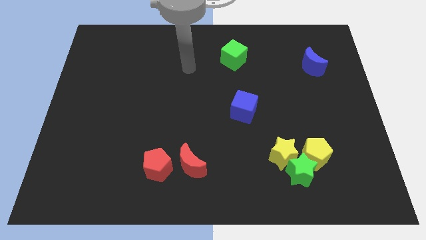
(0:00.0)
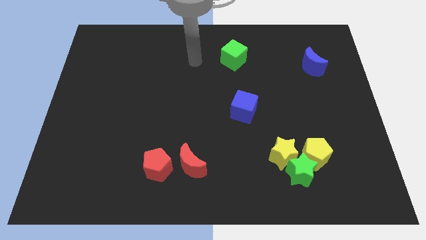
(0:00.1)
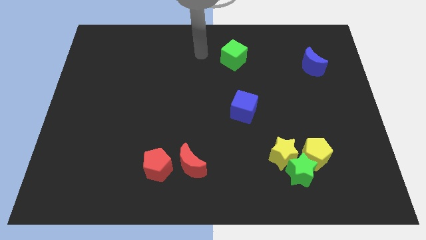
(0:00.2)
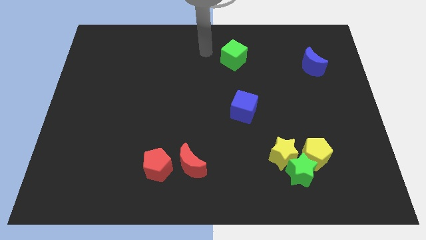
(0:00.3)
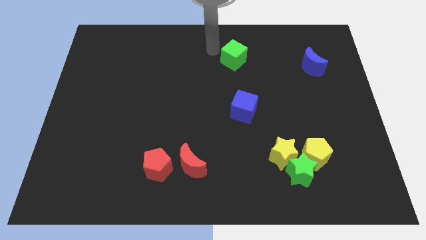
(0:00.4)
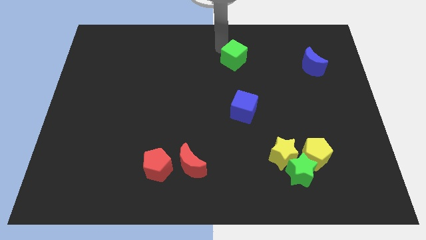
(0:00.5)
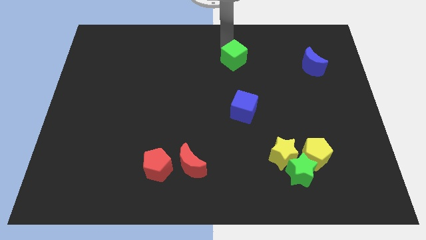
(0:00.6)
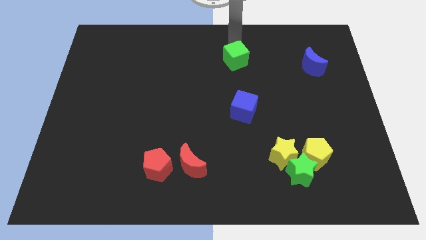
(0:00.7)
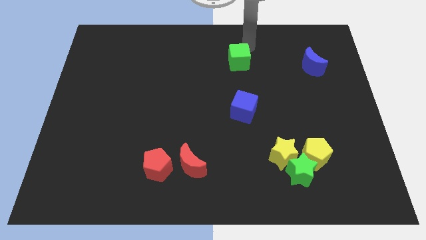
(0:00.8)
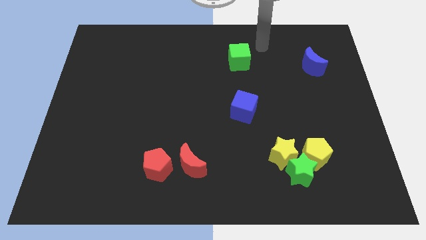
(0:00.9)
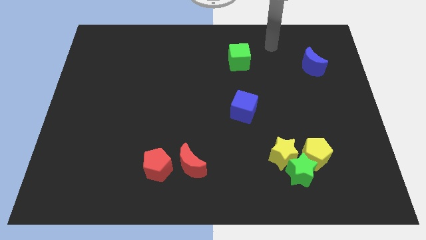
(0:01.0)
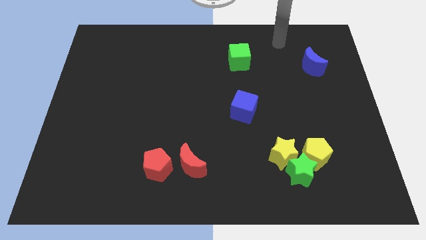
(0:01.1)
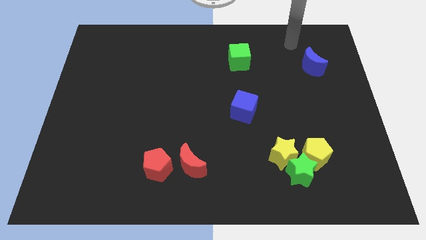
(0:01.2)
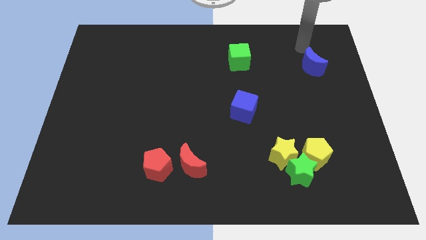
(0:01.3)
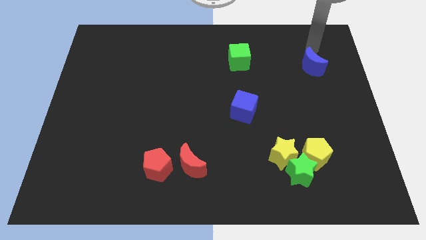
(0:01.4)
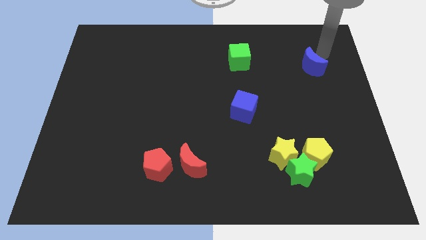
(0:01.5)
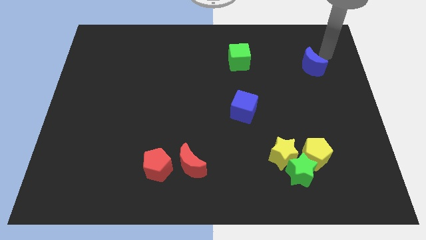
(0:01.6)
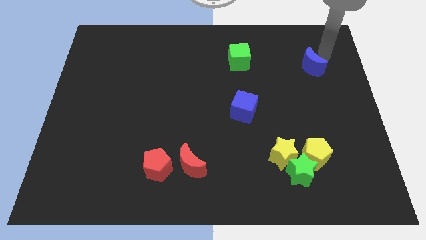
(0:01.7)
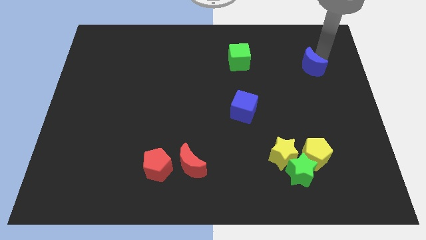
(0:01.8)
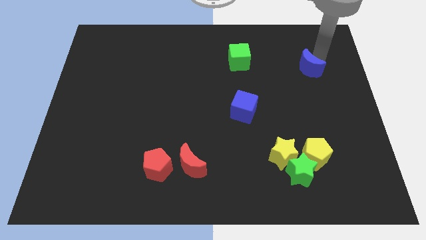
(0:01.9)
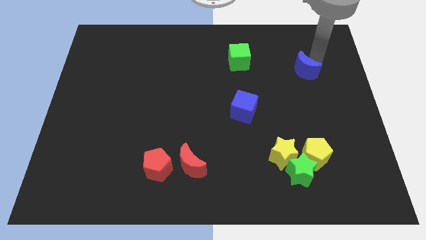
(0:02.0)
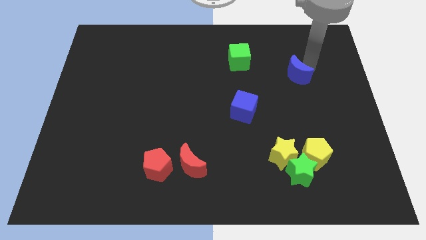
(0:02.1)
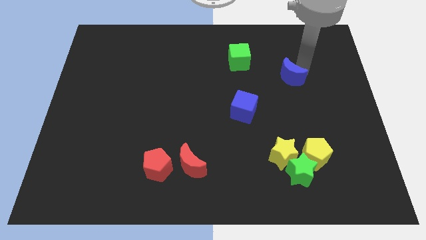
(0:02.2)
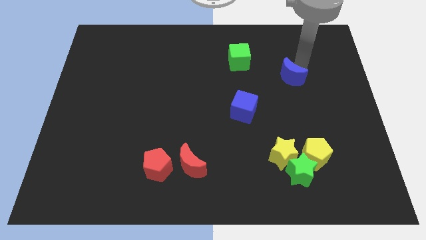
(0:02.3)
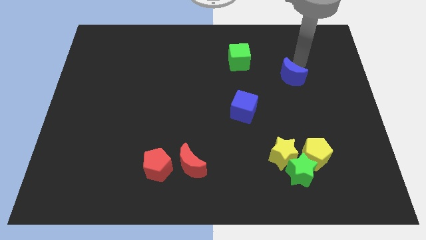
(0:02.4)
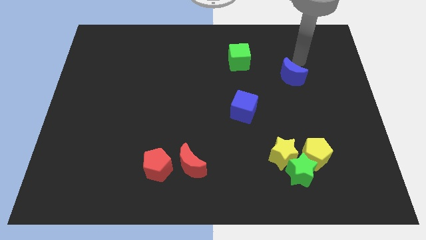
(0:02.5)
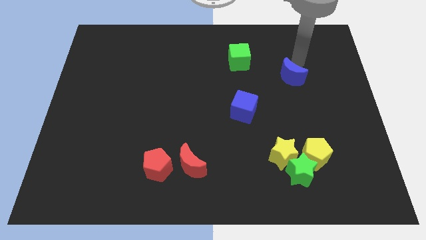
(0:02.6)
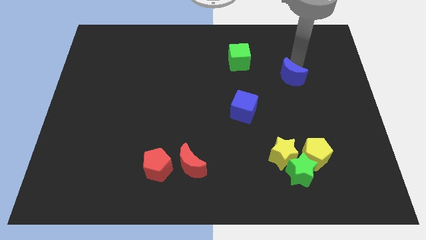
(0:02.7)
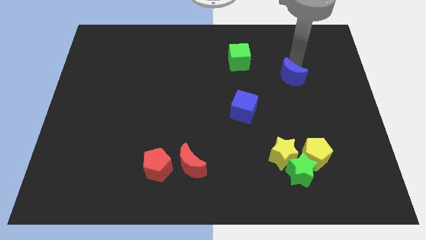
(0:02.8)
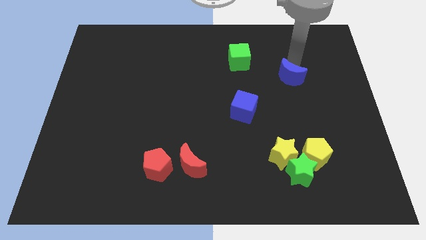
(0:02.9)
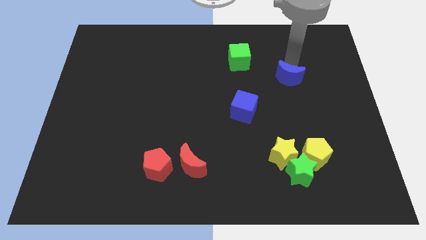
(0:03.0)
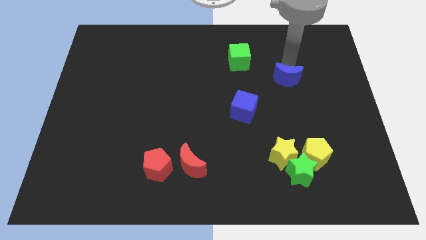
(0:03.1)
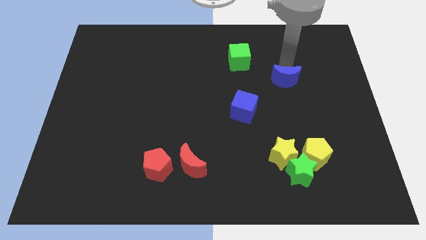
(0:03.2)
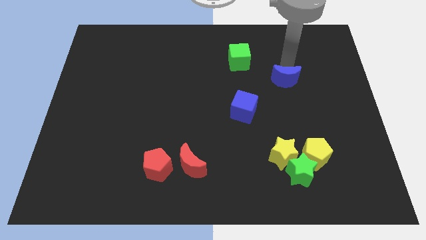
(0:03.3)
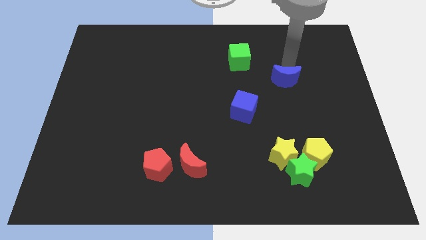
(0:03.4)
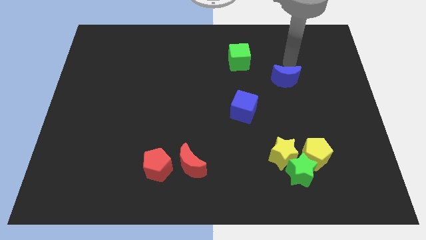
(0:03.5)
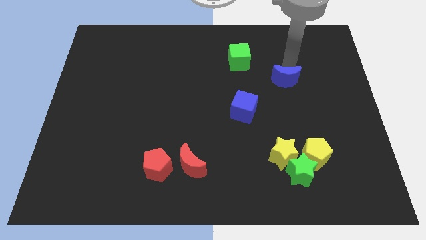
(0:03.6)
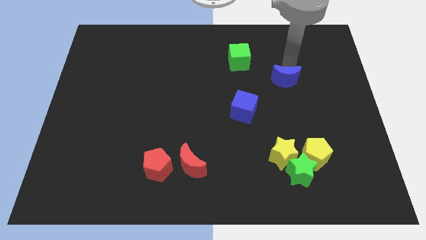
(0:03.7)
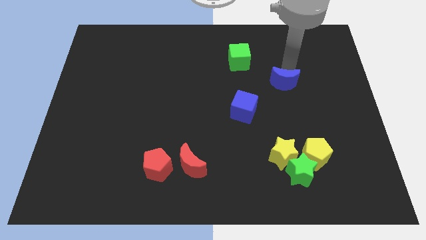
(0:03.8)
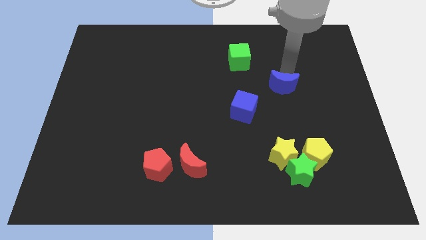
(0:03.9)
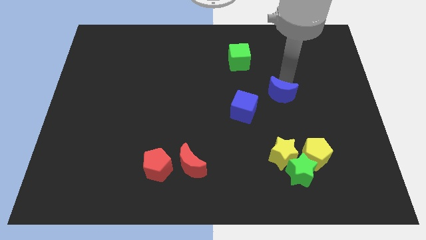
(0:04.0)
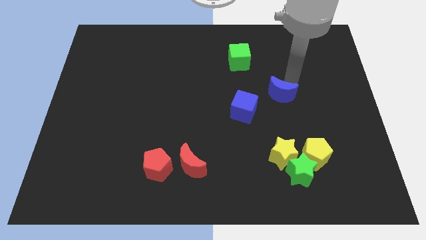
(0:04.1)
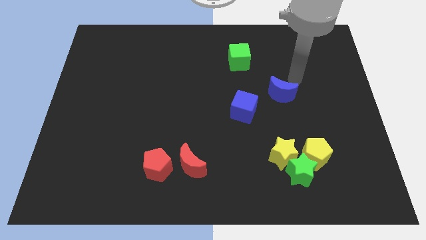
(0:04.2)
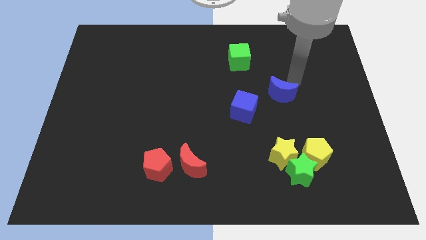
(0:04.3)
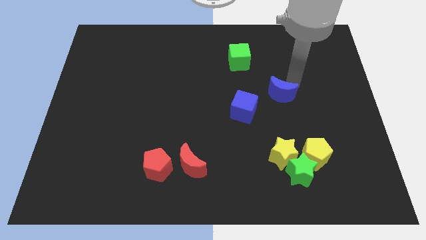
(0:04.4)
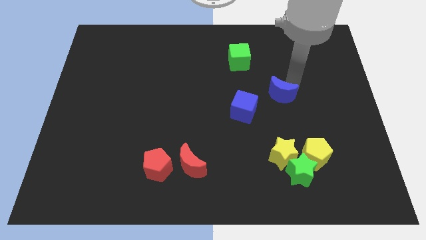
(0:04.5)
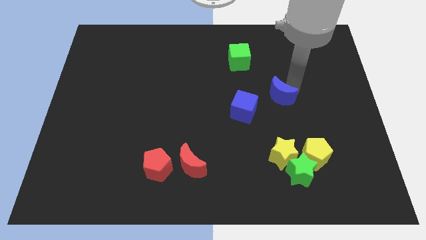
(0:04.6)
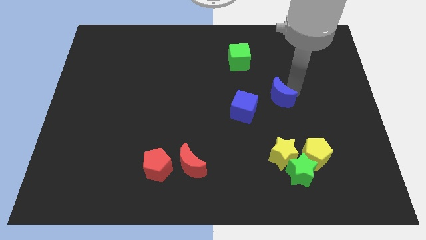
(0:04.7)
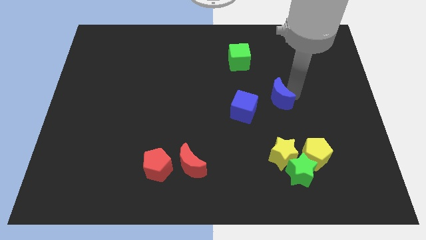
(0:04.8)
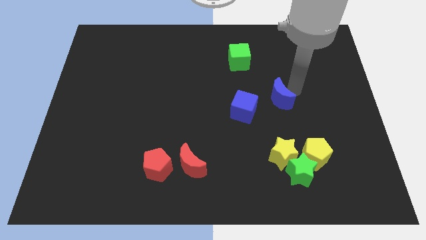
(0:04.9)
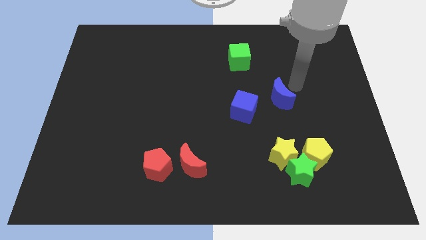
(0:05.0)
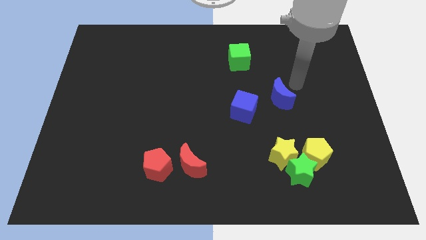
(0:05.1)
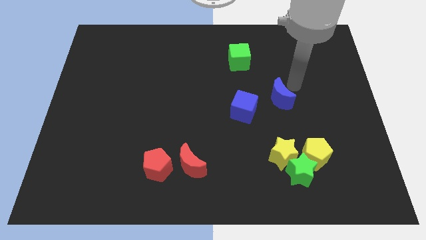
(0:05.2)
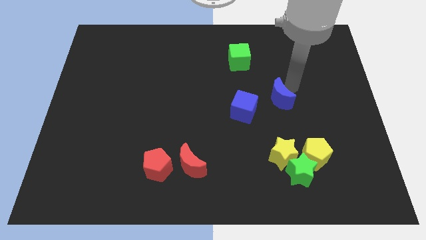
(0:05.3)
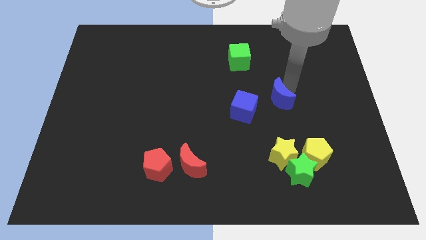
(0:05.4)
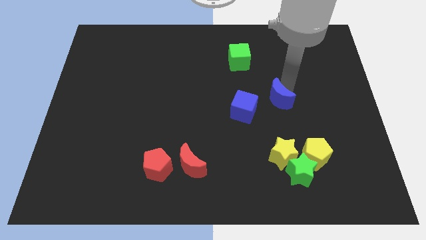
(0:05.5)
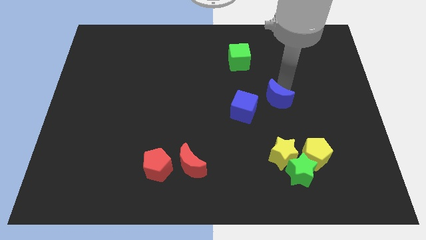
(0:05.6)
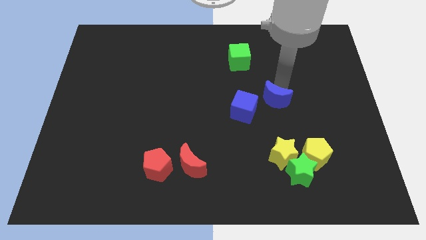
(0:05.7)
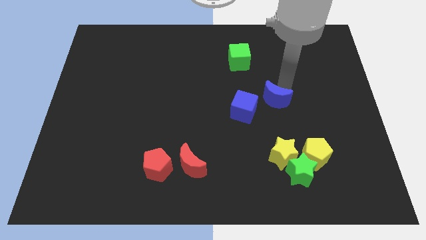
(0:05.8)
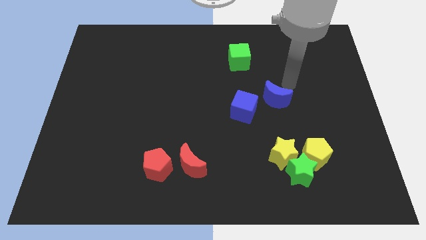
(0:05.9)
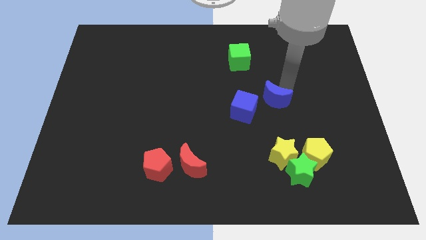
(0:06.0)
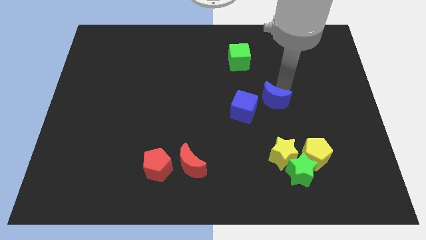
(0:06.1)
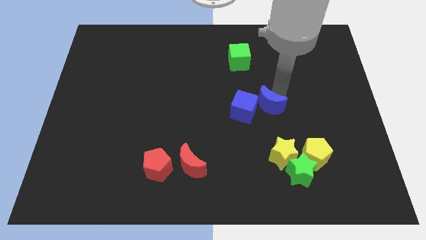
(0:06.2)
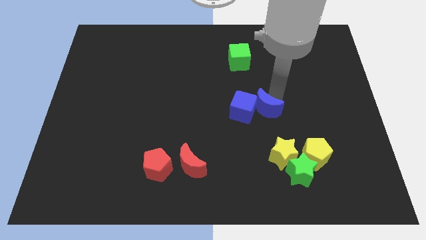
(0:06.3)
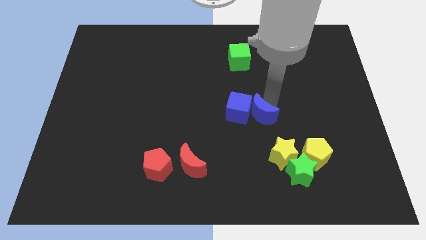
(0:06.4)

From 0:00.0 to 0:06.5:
push the blue moon down and to the left

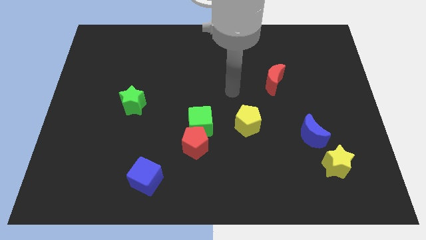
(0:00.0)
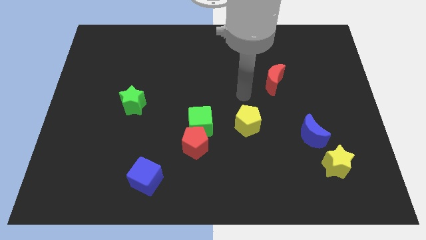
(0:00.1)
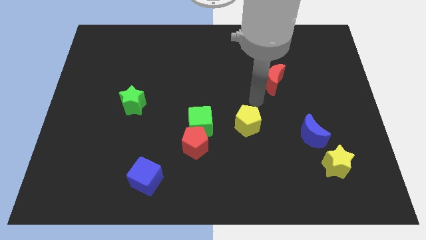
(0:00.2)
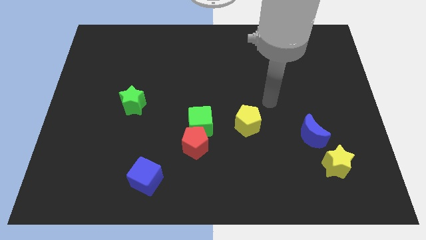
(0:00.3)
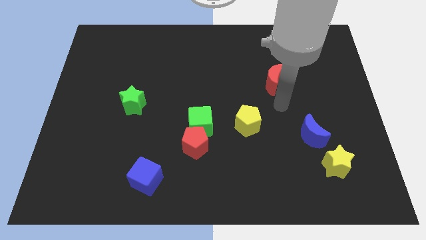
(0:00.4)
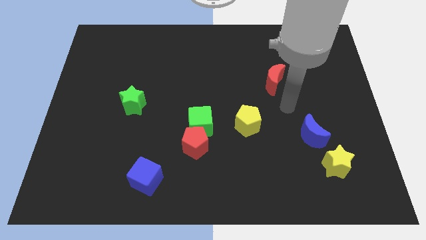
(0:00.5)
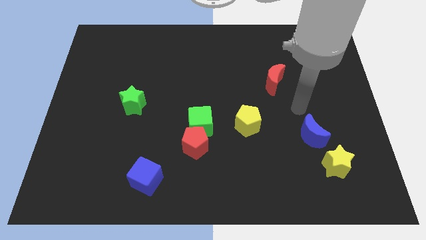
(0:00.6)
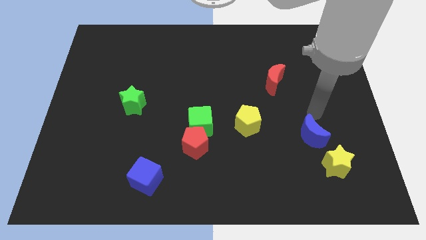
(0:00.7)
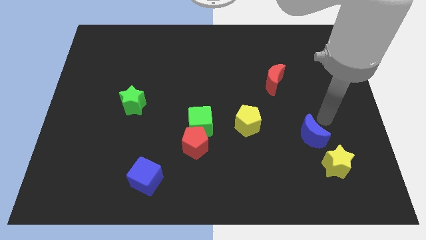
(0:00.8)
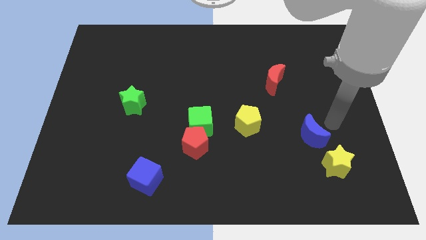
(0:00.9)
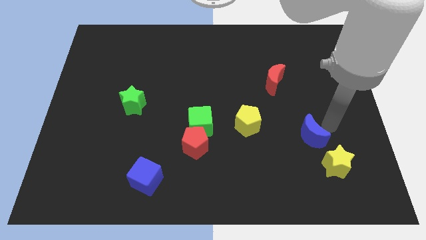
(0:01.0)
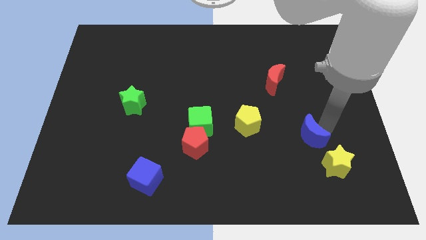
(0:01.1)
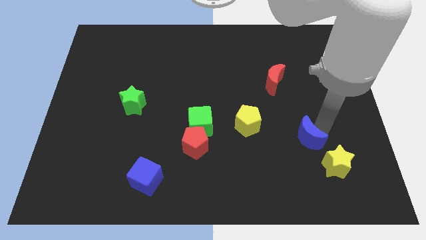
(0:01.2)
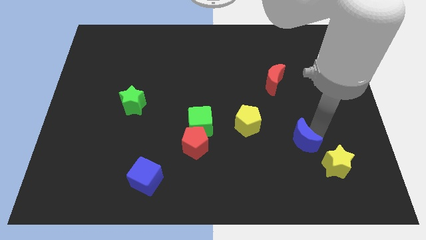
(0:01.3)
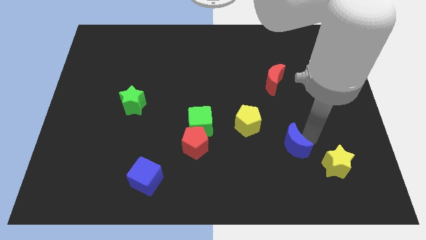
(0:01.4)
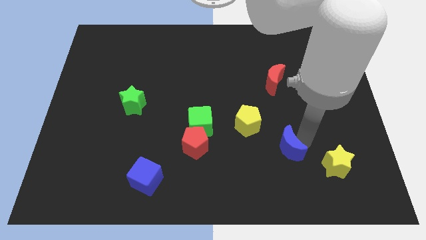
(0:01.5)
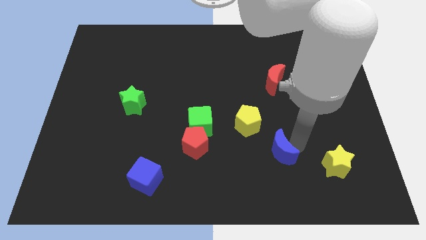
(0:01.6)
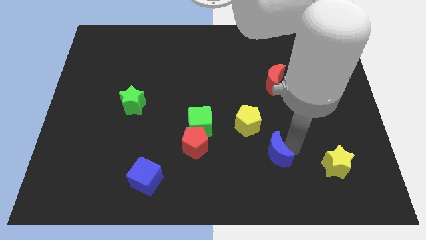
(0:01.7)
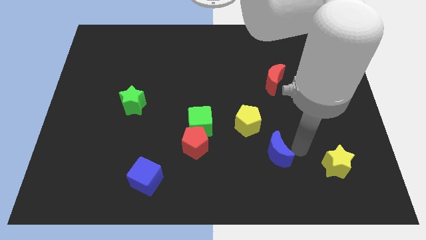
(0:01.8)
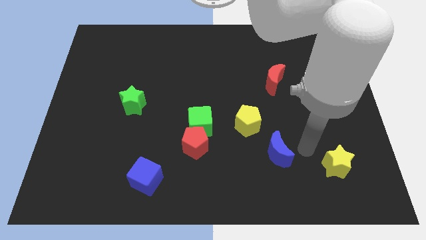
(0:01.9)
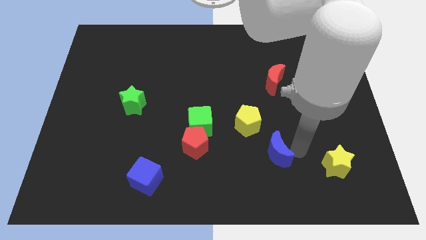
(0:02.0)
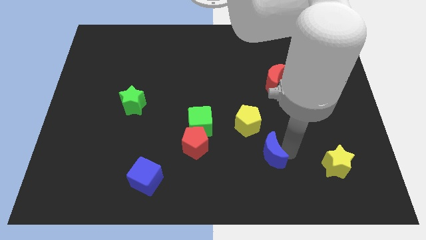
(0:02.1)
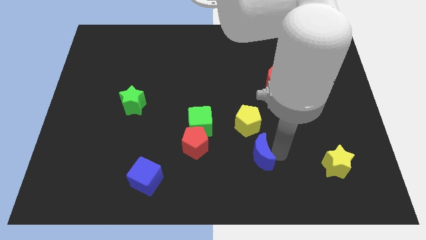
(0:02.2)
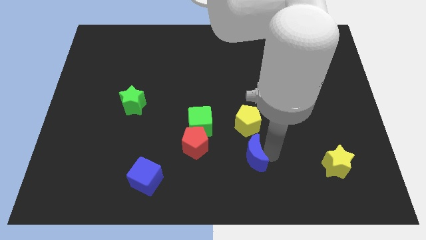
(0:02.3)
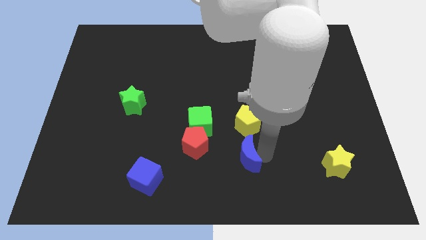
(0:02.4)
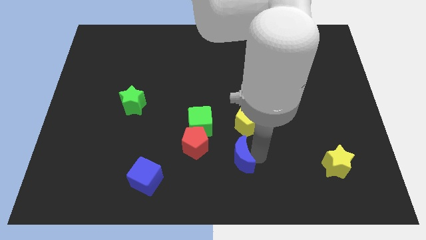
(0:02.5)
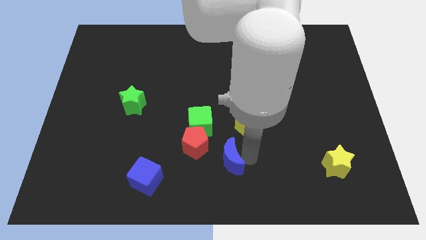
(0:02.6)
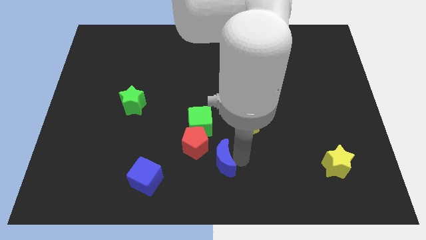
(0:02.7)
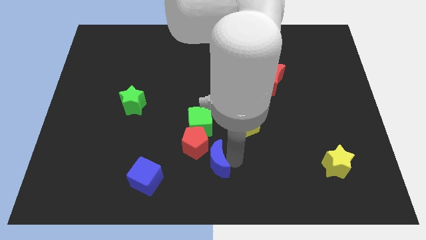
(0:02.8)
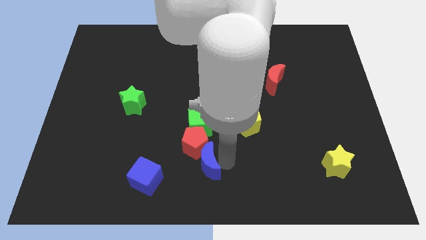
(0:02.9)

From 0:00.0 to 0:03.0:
move the blue moon left
